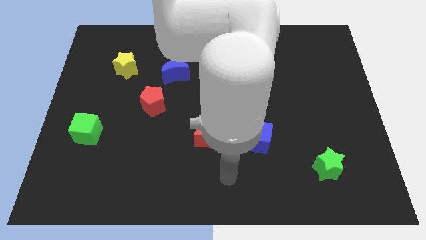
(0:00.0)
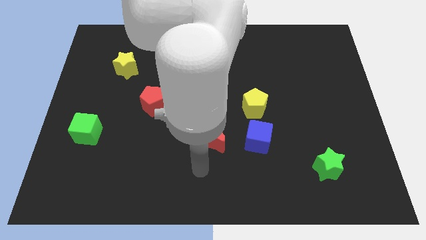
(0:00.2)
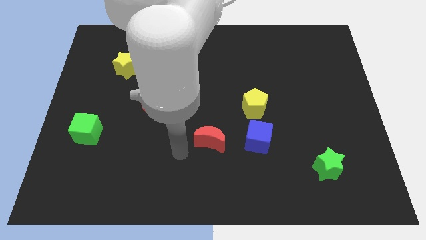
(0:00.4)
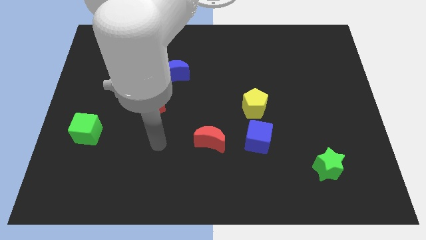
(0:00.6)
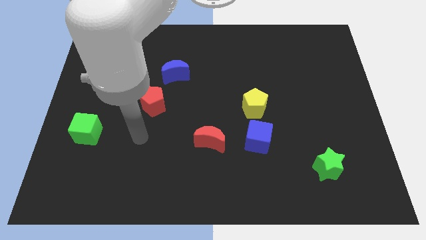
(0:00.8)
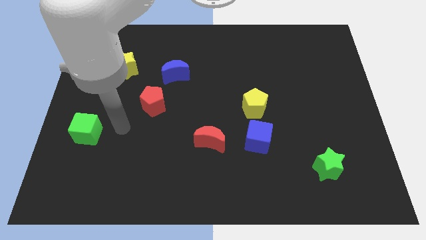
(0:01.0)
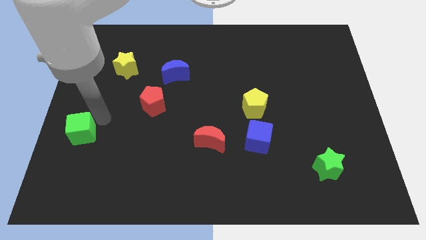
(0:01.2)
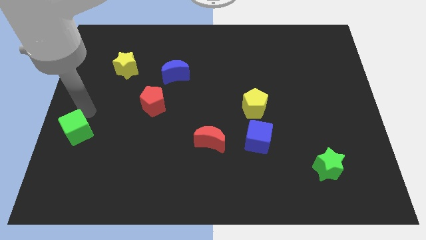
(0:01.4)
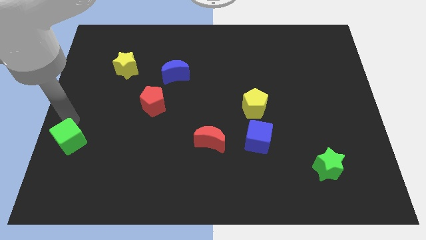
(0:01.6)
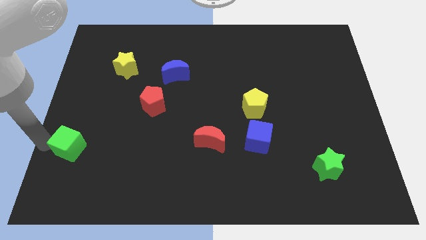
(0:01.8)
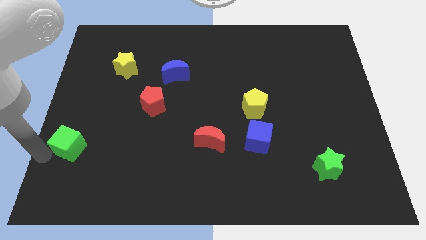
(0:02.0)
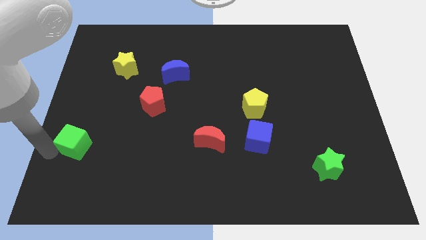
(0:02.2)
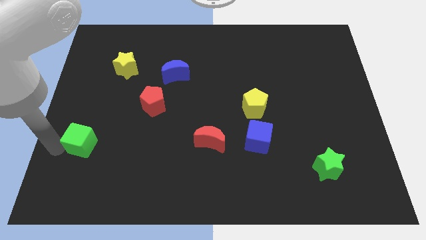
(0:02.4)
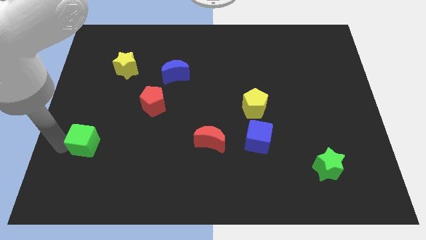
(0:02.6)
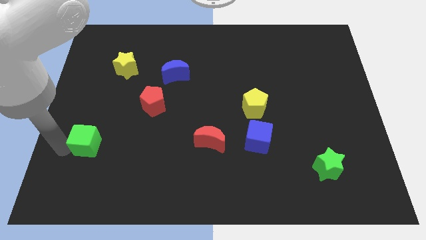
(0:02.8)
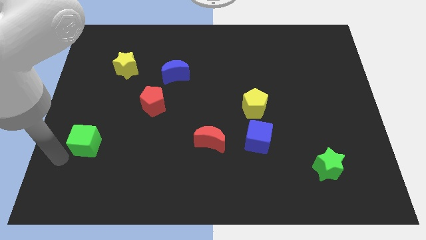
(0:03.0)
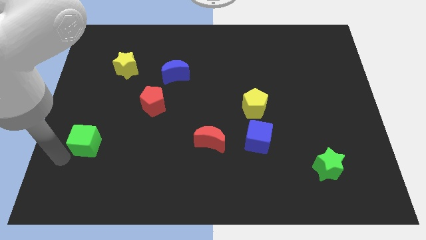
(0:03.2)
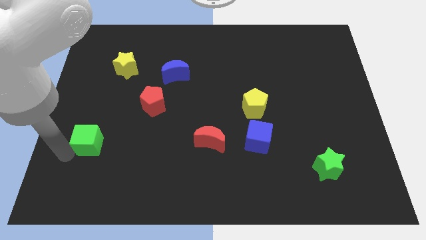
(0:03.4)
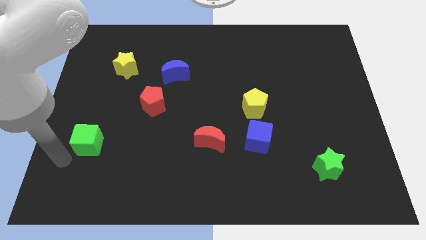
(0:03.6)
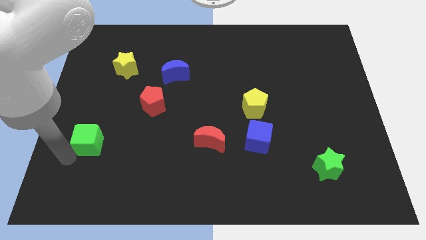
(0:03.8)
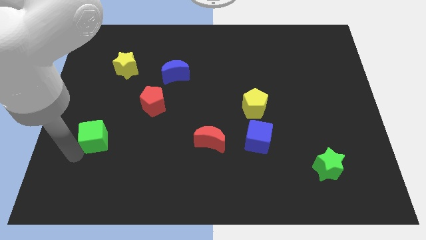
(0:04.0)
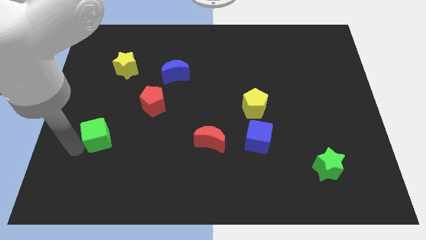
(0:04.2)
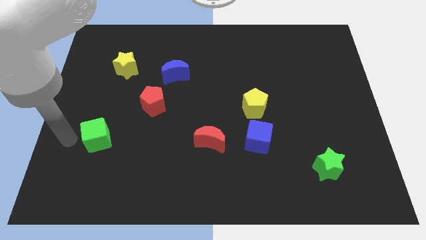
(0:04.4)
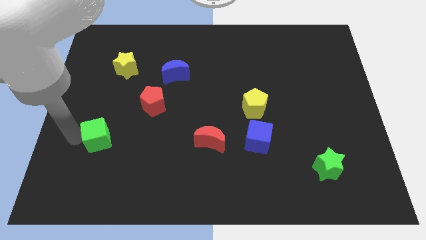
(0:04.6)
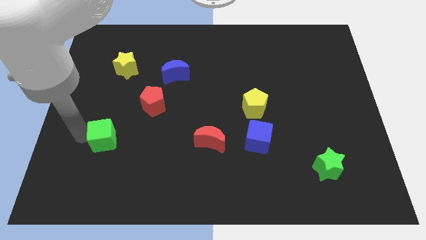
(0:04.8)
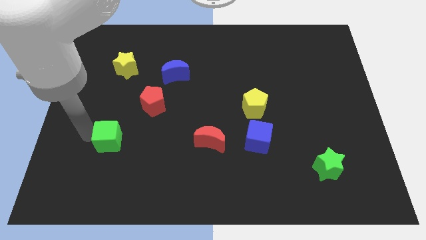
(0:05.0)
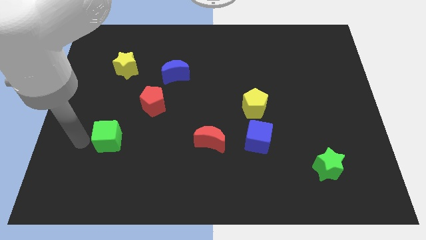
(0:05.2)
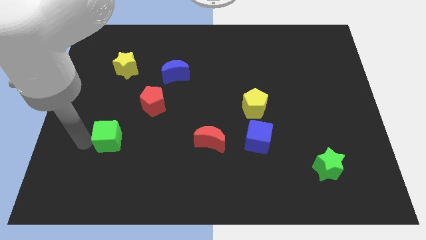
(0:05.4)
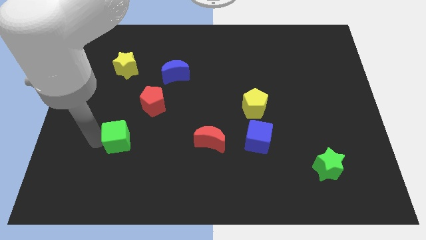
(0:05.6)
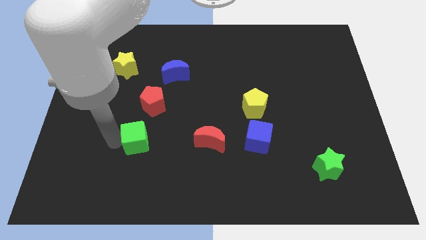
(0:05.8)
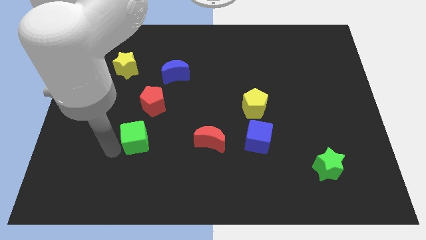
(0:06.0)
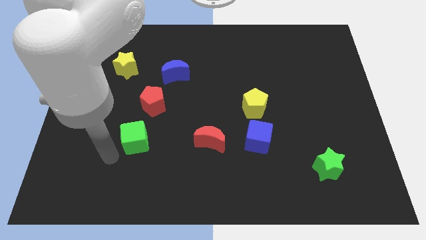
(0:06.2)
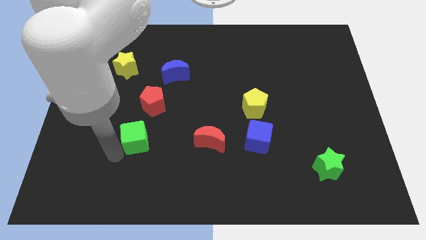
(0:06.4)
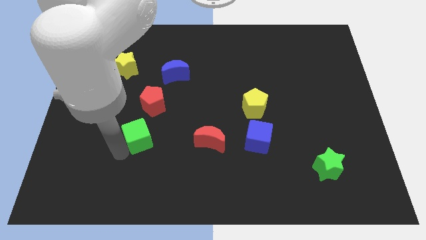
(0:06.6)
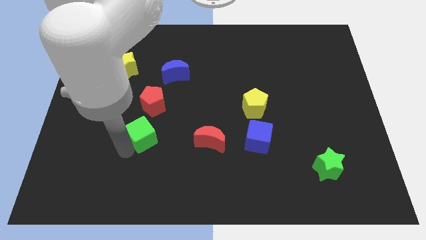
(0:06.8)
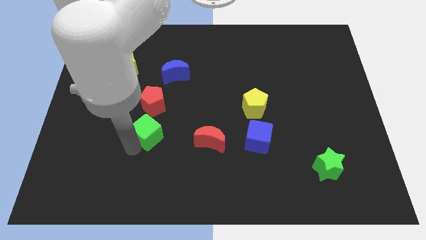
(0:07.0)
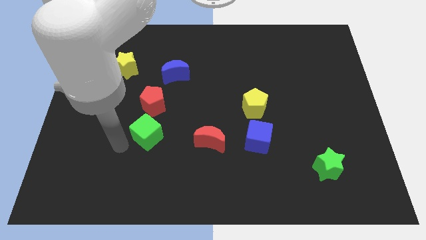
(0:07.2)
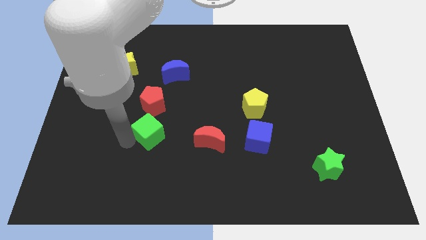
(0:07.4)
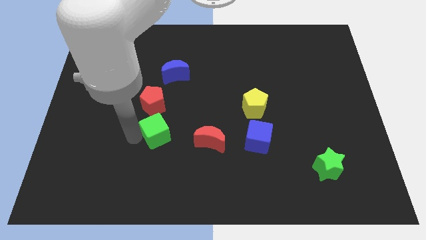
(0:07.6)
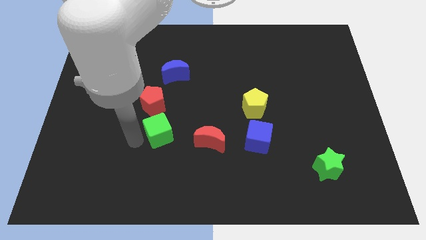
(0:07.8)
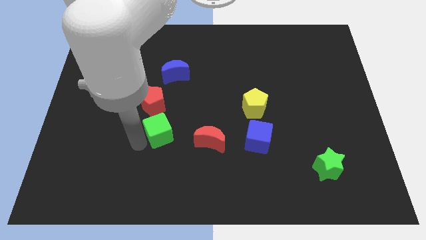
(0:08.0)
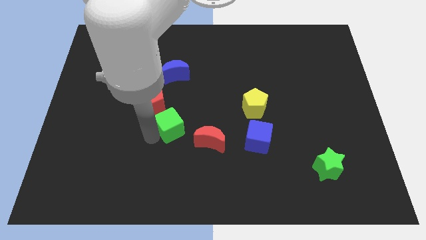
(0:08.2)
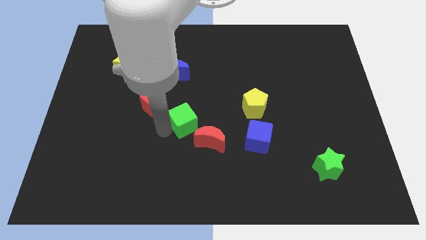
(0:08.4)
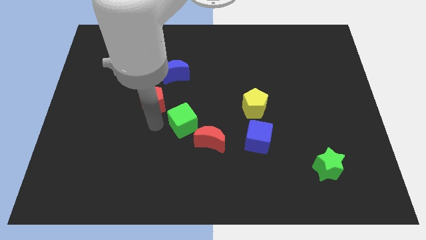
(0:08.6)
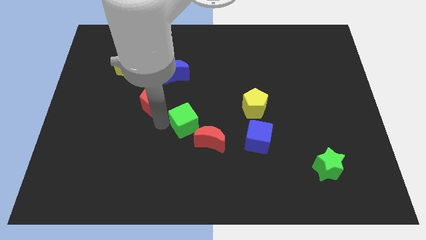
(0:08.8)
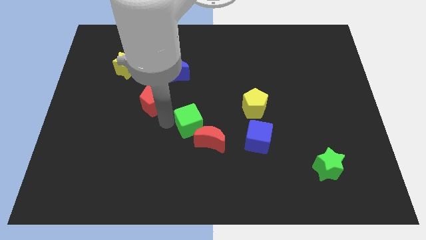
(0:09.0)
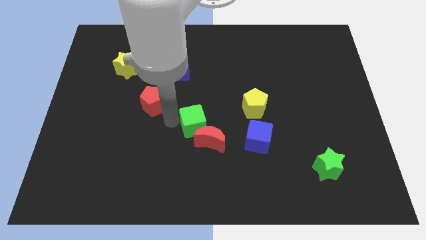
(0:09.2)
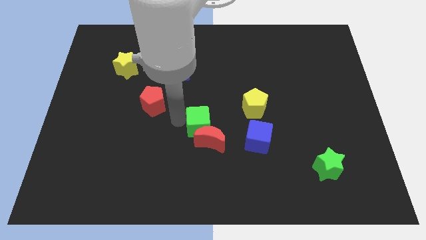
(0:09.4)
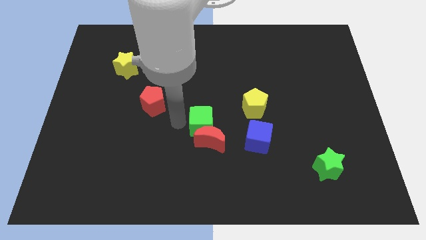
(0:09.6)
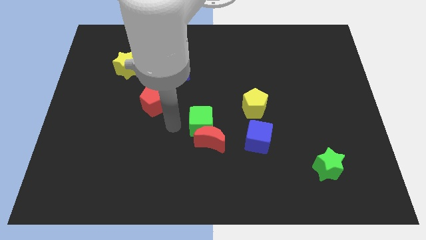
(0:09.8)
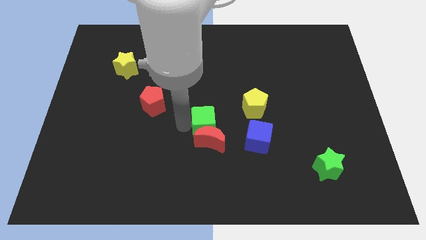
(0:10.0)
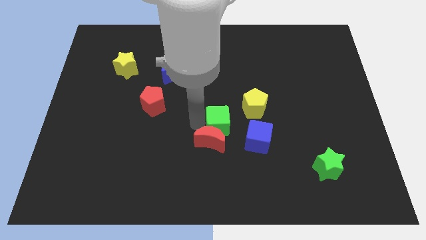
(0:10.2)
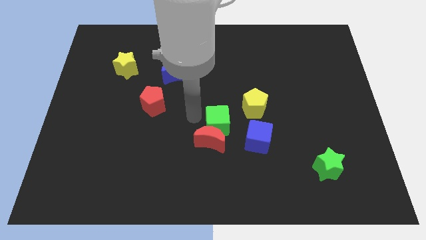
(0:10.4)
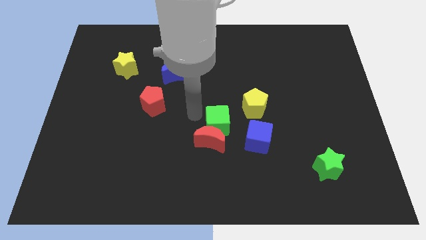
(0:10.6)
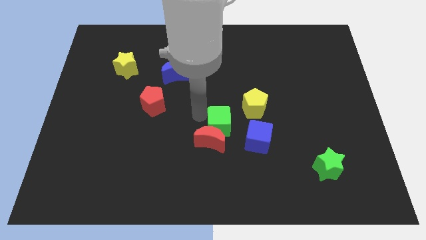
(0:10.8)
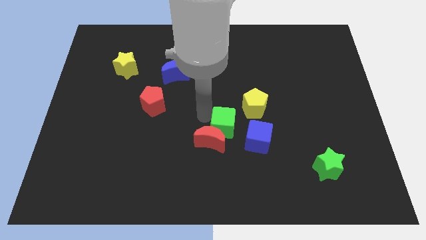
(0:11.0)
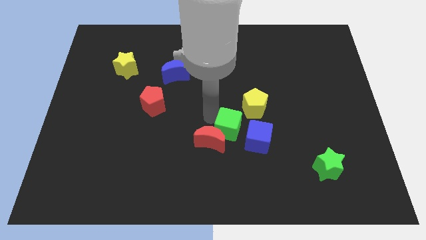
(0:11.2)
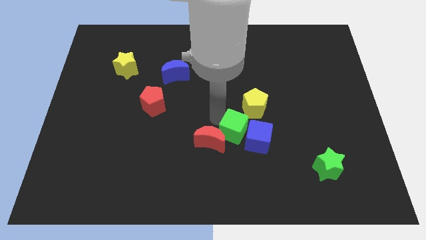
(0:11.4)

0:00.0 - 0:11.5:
push the green cube towards the blue cube

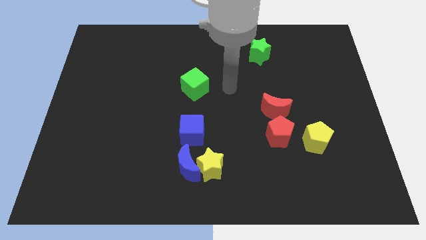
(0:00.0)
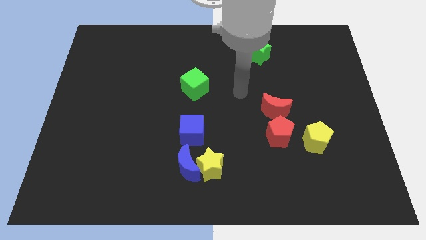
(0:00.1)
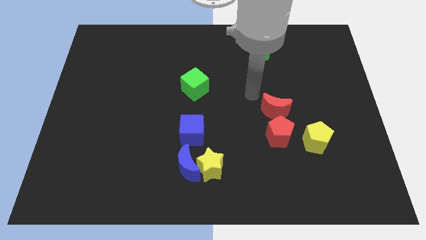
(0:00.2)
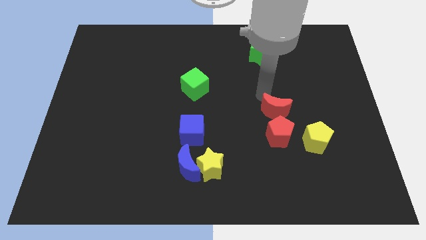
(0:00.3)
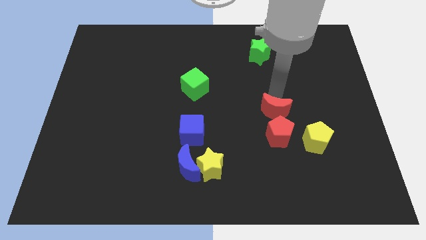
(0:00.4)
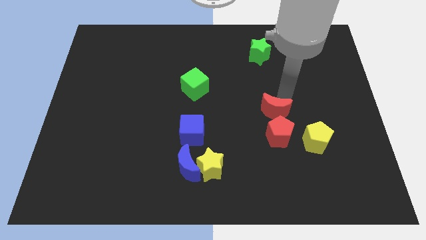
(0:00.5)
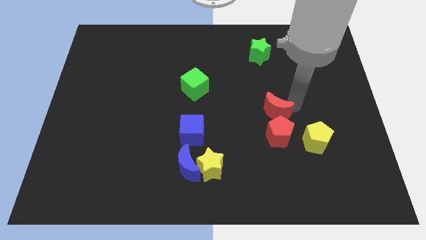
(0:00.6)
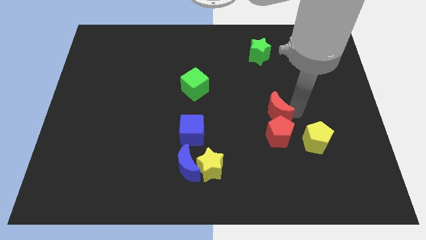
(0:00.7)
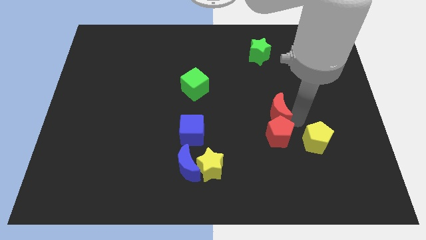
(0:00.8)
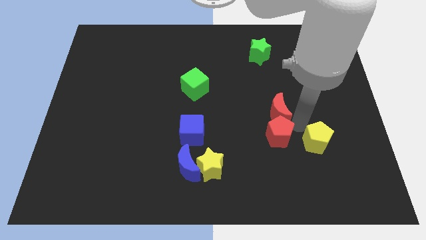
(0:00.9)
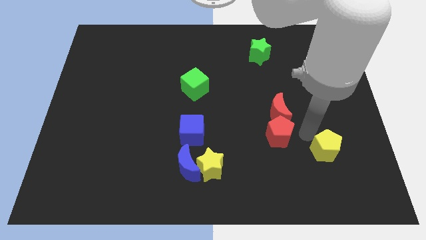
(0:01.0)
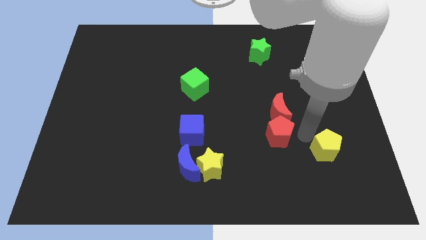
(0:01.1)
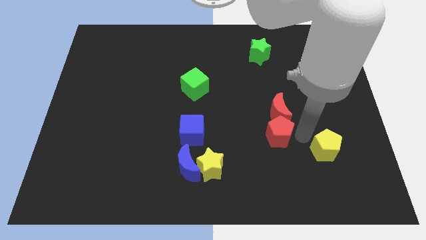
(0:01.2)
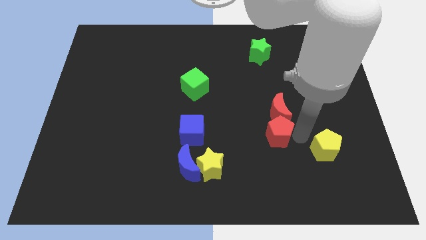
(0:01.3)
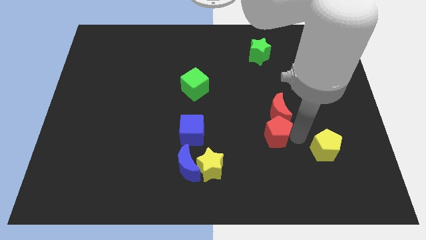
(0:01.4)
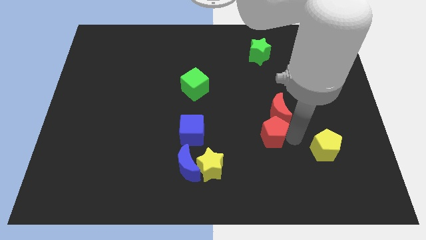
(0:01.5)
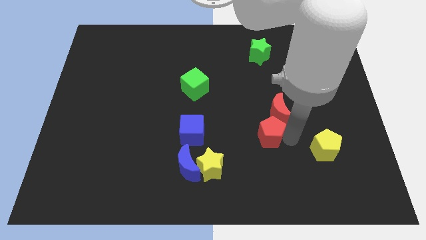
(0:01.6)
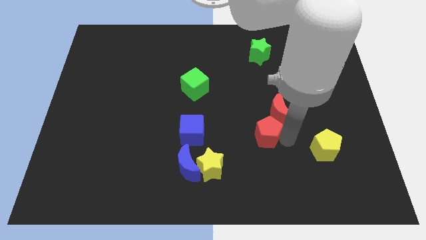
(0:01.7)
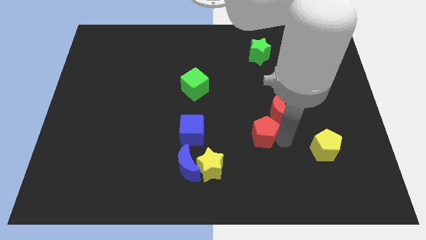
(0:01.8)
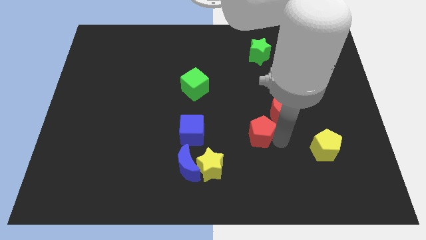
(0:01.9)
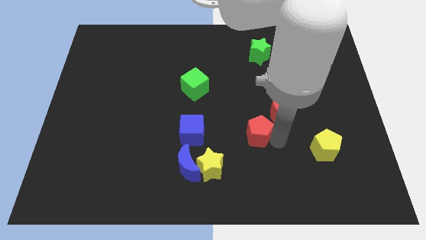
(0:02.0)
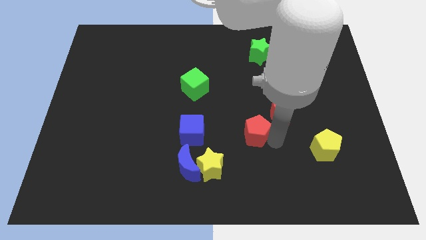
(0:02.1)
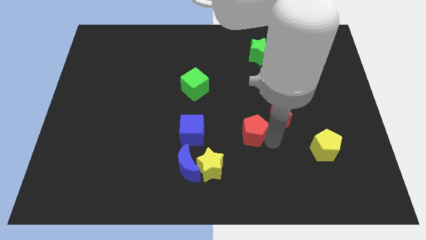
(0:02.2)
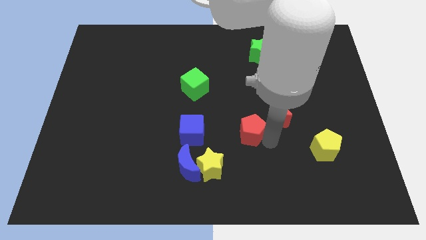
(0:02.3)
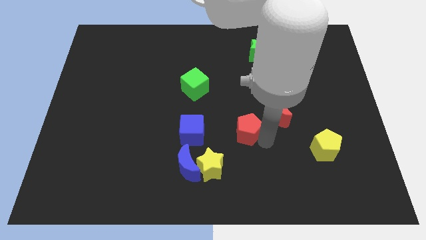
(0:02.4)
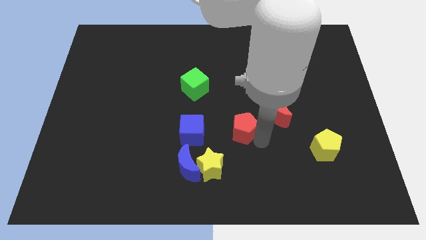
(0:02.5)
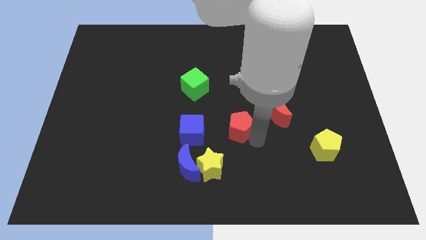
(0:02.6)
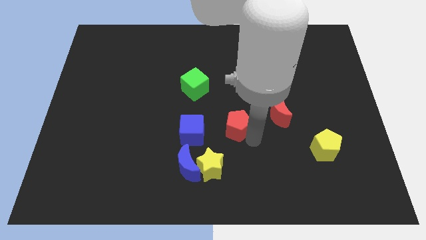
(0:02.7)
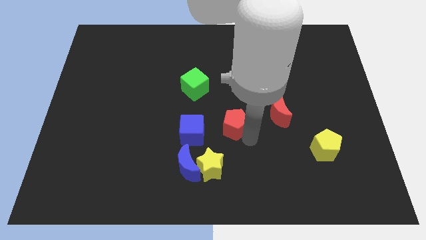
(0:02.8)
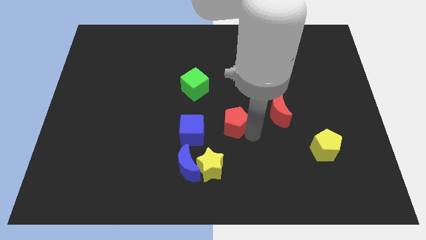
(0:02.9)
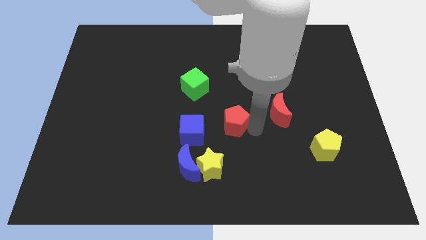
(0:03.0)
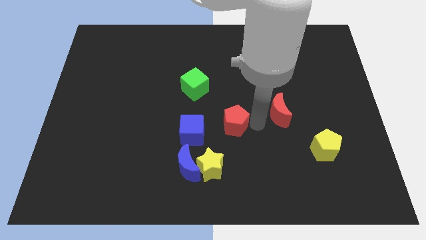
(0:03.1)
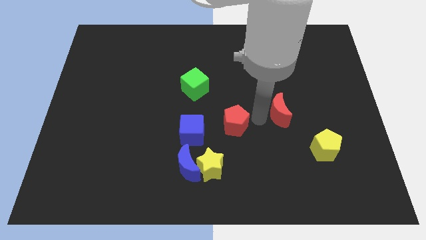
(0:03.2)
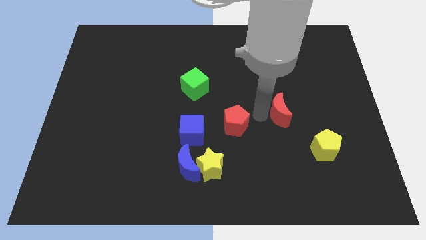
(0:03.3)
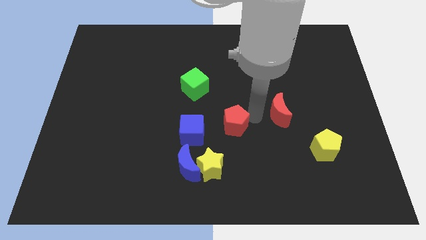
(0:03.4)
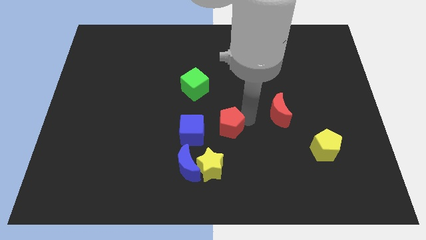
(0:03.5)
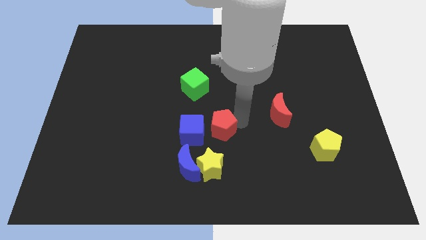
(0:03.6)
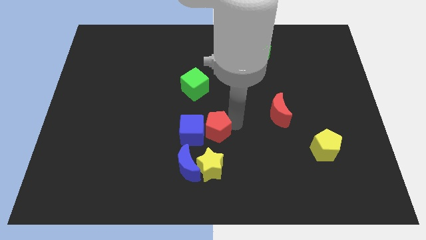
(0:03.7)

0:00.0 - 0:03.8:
move the red pentagon towards the blue cube
